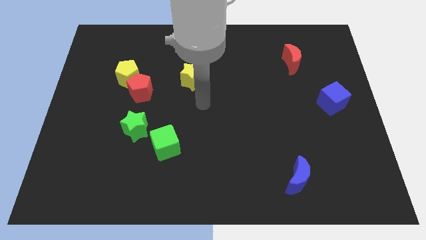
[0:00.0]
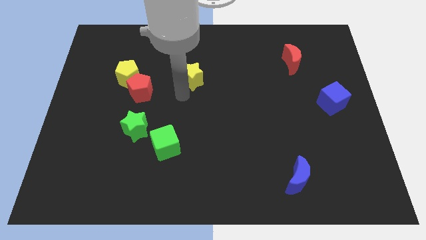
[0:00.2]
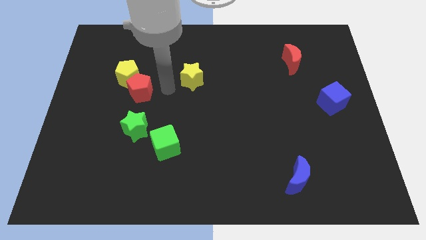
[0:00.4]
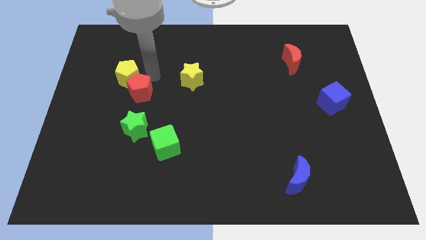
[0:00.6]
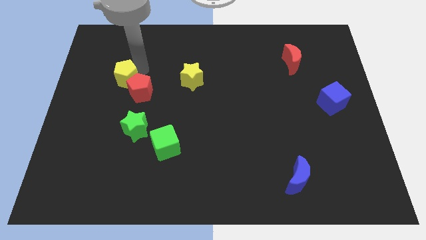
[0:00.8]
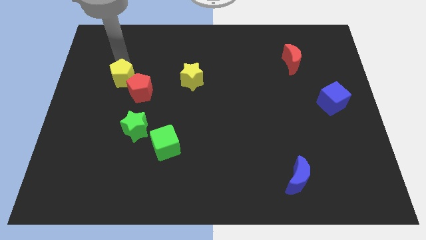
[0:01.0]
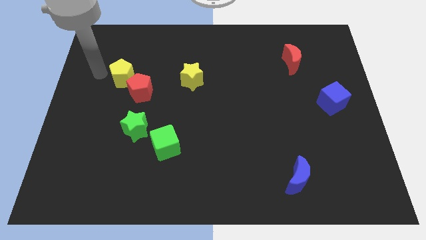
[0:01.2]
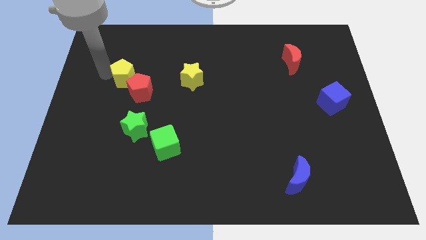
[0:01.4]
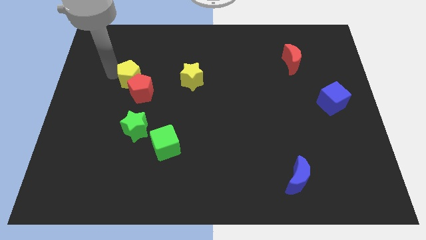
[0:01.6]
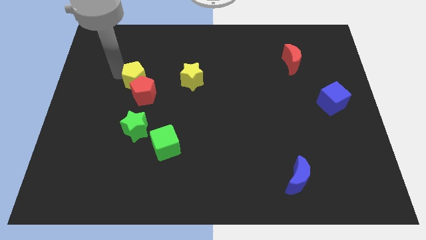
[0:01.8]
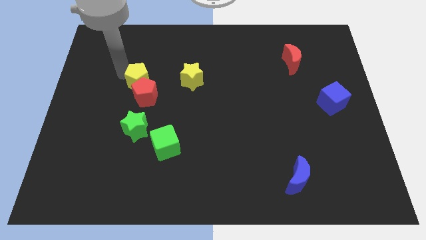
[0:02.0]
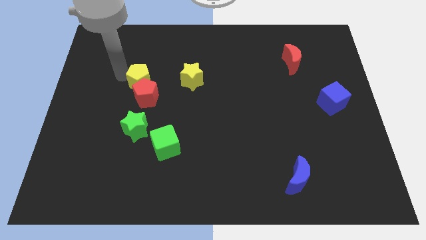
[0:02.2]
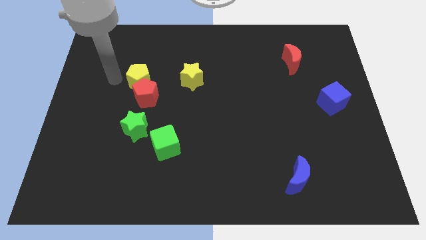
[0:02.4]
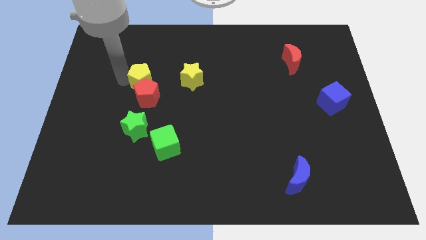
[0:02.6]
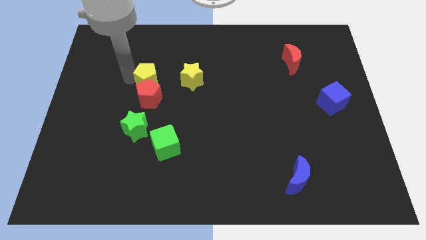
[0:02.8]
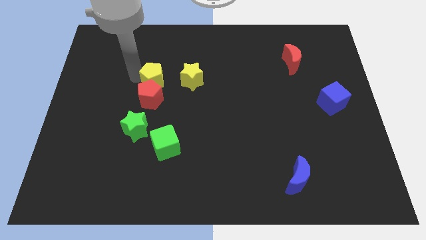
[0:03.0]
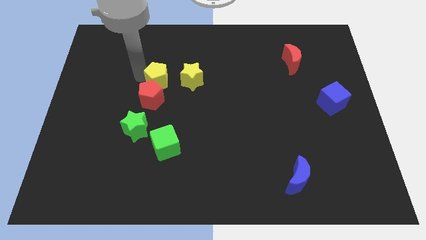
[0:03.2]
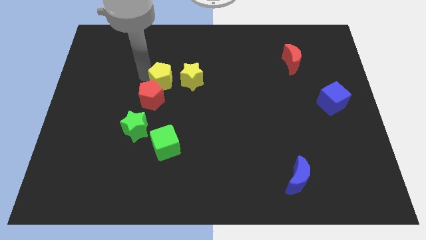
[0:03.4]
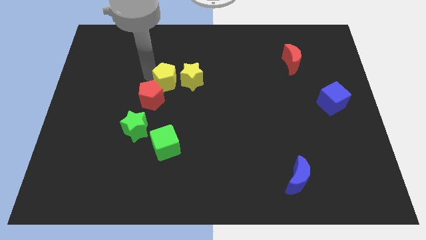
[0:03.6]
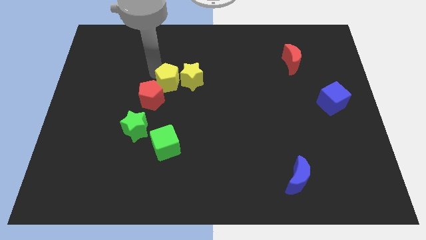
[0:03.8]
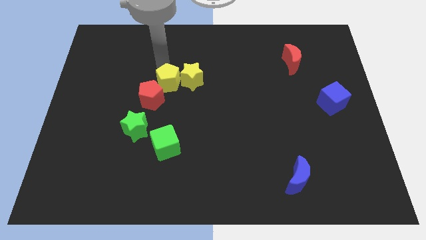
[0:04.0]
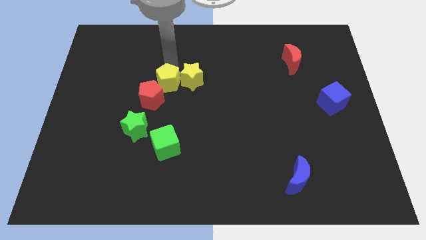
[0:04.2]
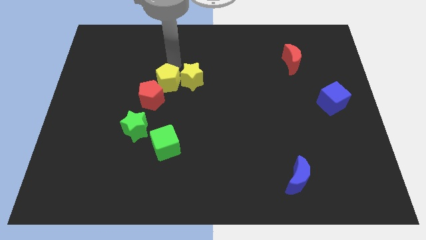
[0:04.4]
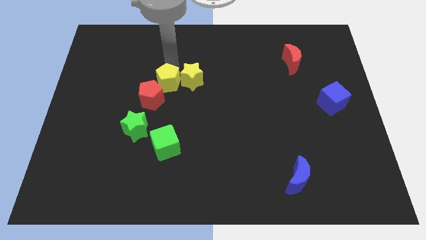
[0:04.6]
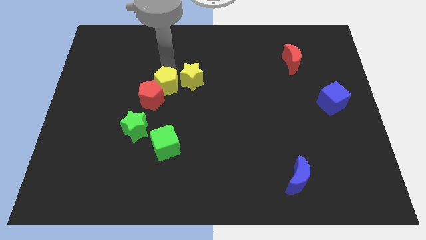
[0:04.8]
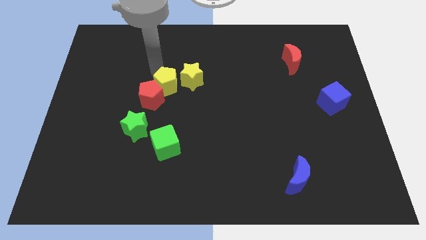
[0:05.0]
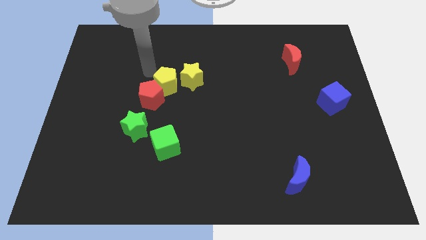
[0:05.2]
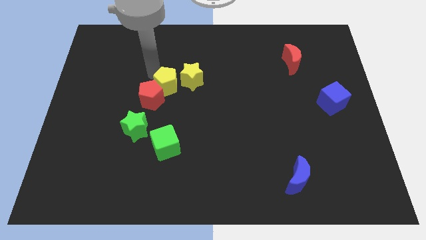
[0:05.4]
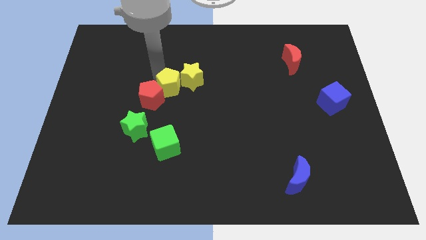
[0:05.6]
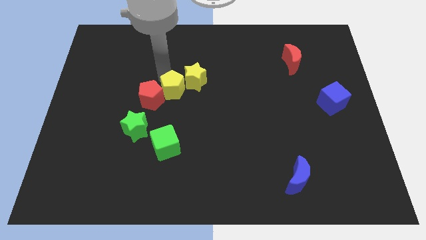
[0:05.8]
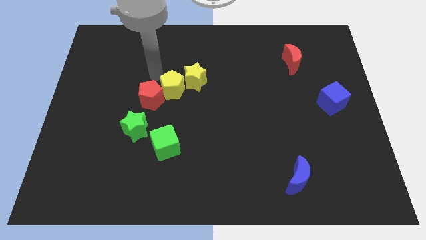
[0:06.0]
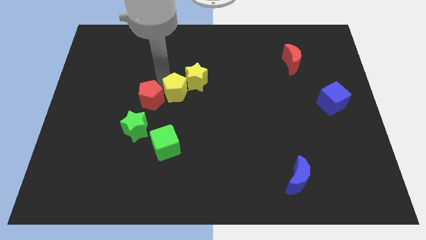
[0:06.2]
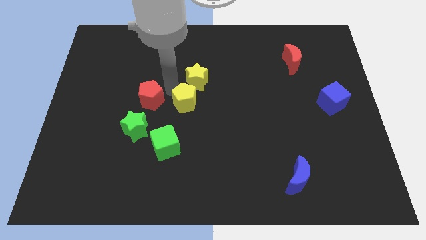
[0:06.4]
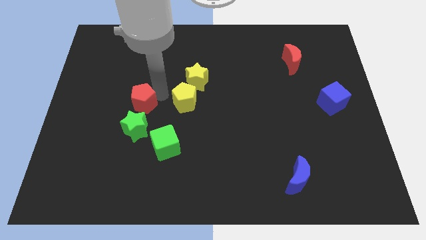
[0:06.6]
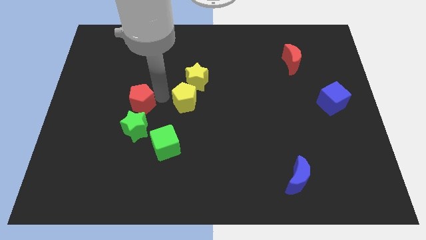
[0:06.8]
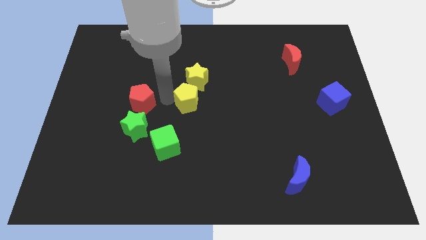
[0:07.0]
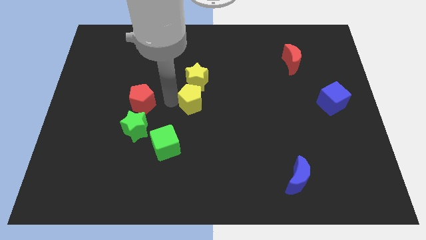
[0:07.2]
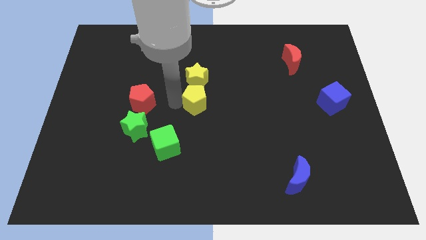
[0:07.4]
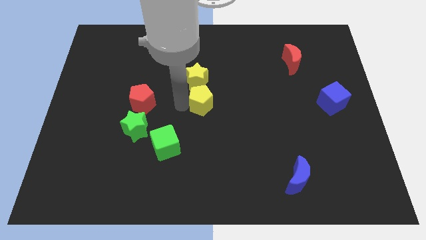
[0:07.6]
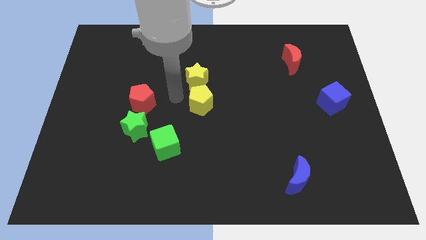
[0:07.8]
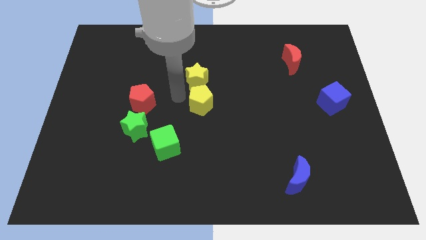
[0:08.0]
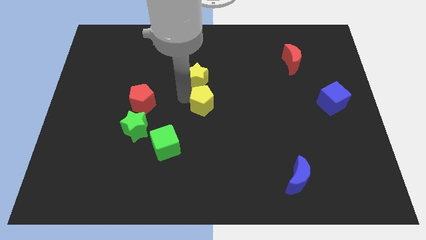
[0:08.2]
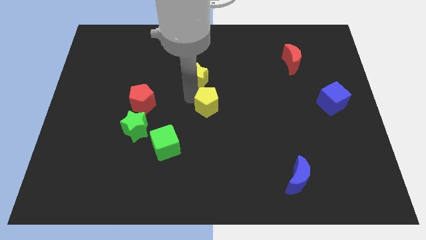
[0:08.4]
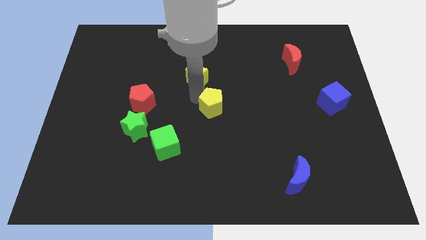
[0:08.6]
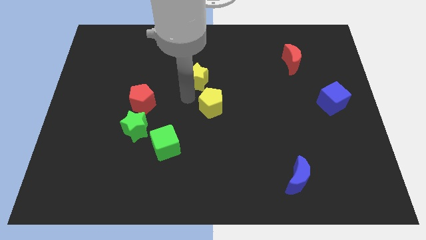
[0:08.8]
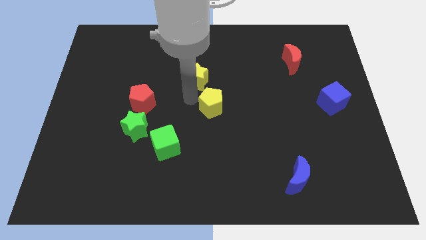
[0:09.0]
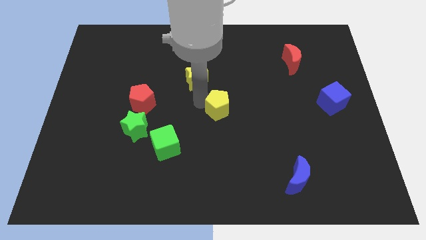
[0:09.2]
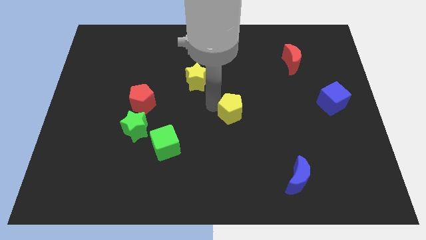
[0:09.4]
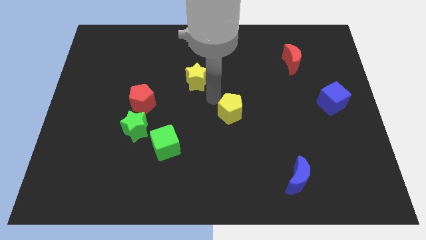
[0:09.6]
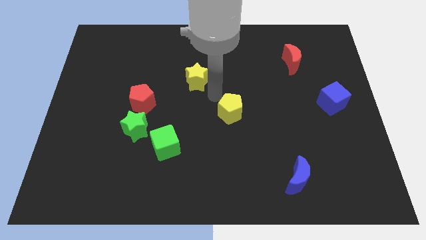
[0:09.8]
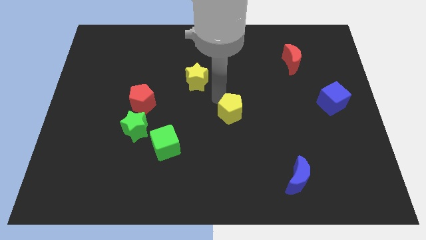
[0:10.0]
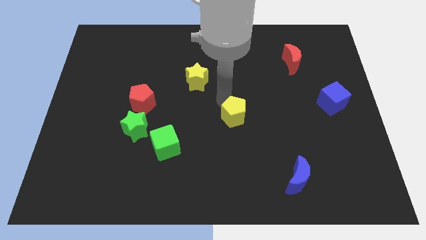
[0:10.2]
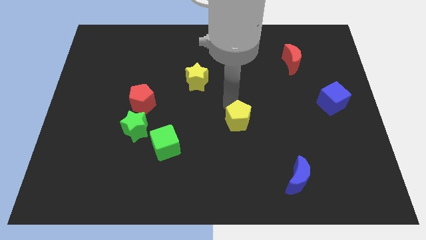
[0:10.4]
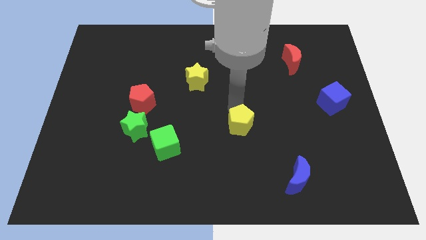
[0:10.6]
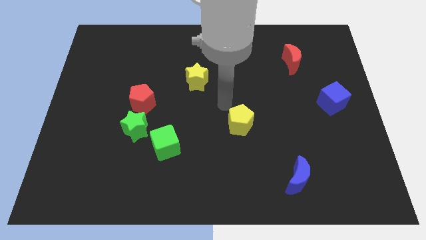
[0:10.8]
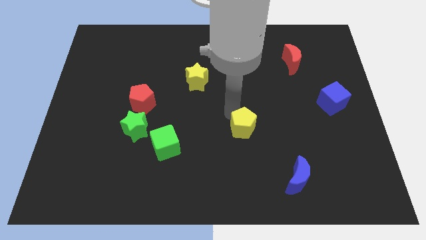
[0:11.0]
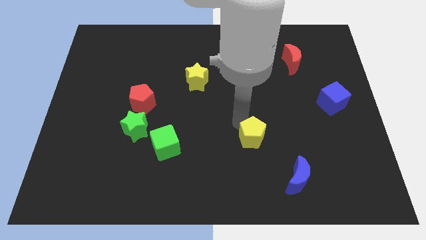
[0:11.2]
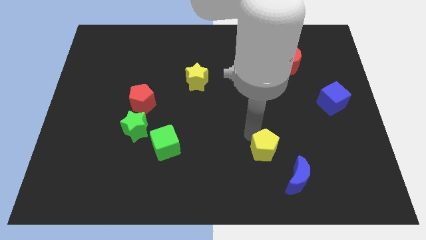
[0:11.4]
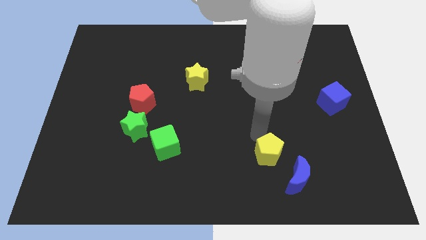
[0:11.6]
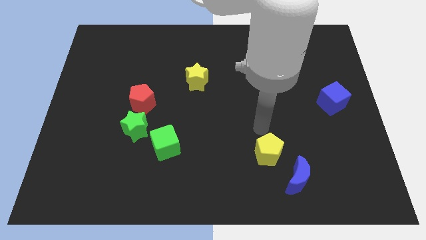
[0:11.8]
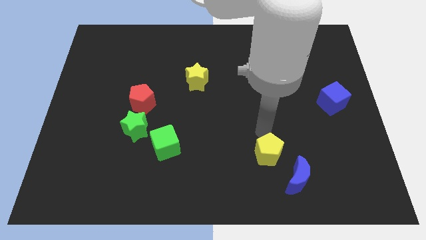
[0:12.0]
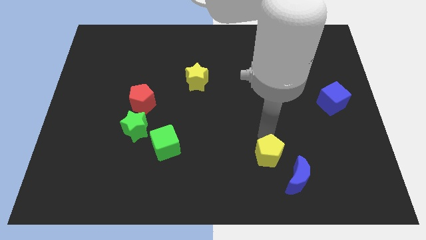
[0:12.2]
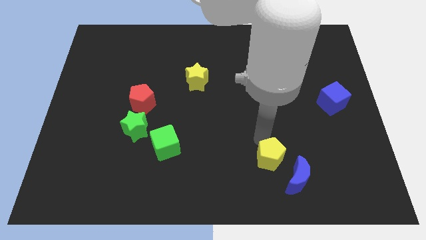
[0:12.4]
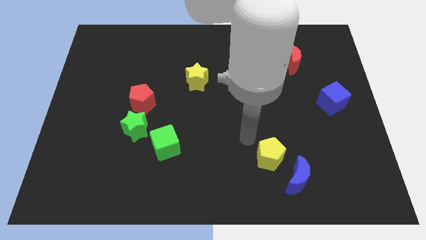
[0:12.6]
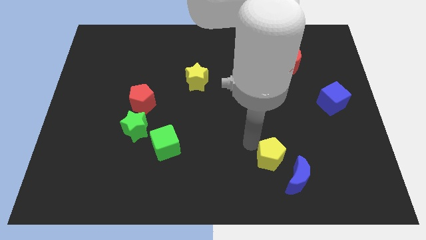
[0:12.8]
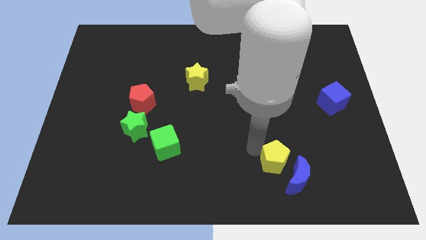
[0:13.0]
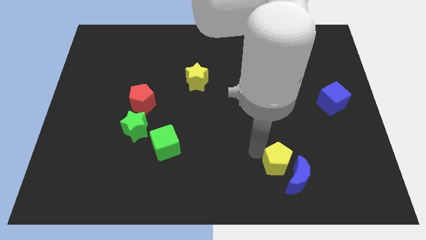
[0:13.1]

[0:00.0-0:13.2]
put the yellow pentagon towards the blue moon

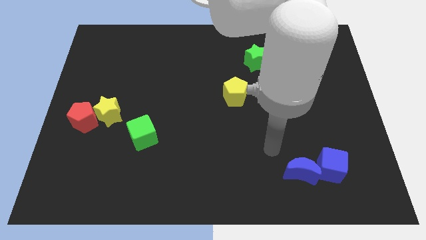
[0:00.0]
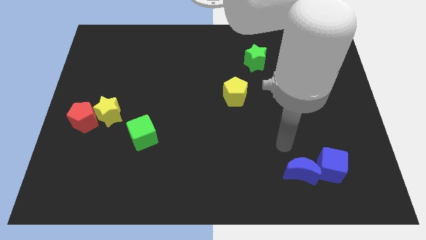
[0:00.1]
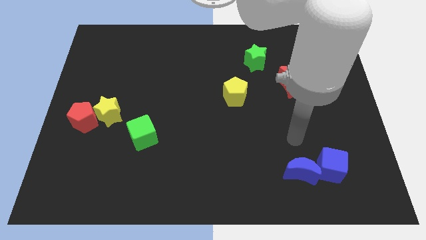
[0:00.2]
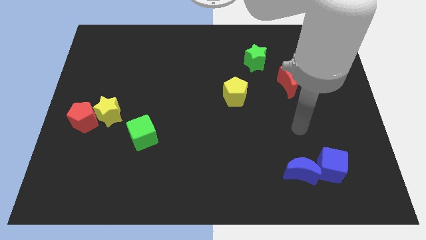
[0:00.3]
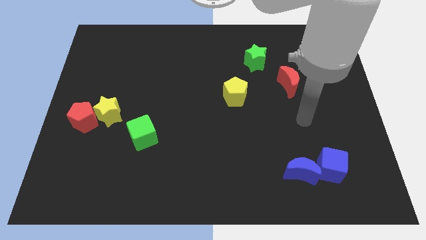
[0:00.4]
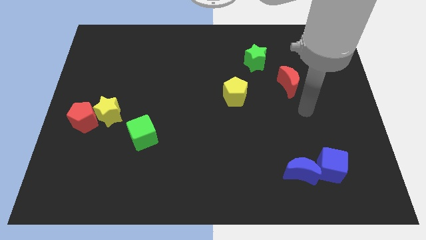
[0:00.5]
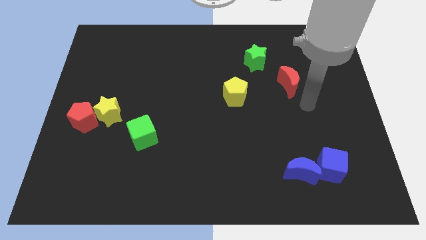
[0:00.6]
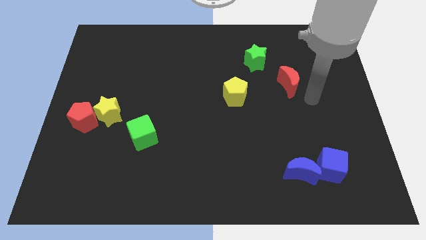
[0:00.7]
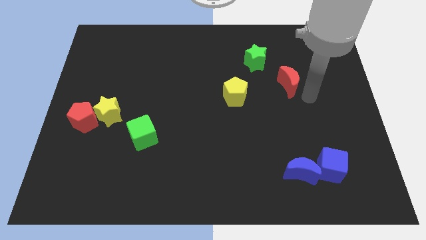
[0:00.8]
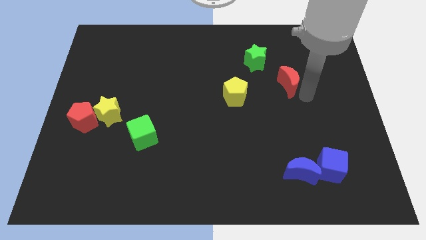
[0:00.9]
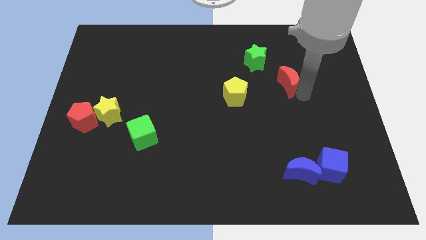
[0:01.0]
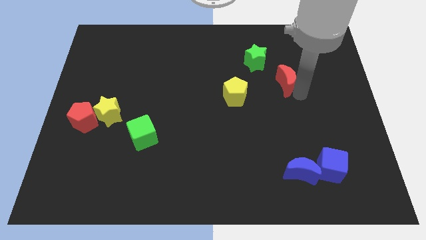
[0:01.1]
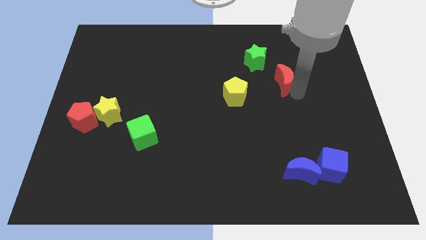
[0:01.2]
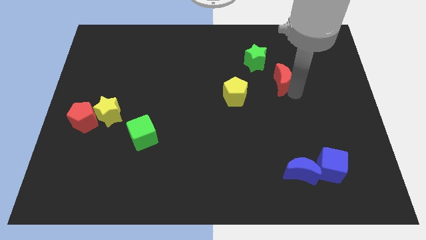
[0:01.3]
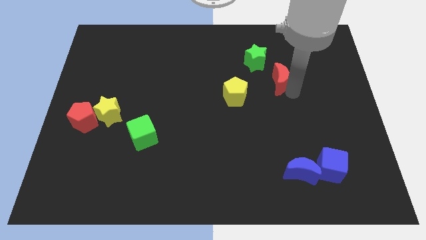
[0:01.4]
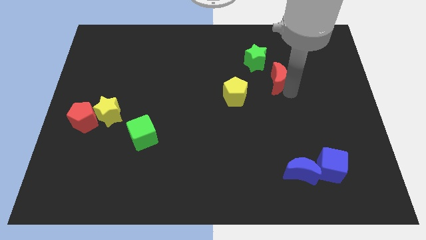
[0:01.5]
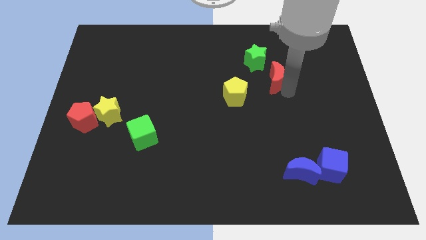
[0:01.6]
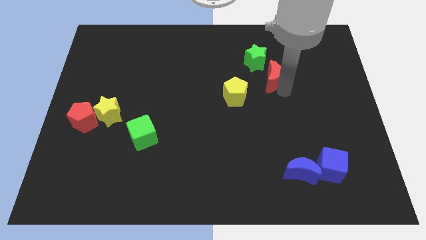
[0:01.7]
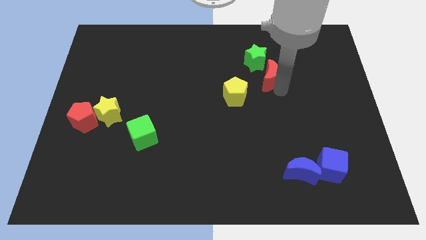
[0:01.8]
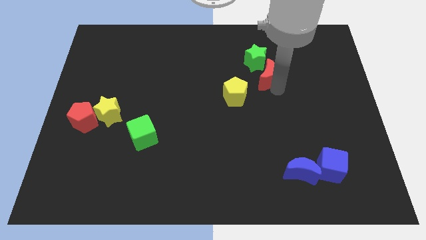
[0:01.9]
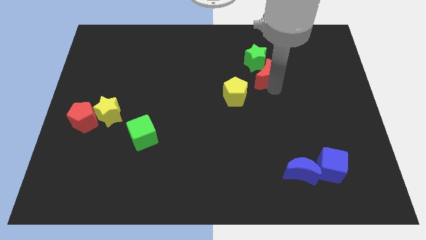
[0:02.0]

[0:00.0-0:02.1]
put the red moon to the green star
